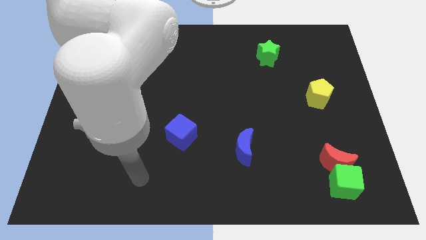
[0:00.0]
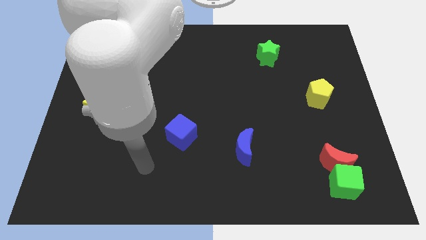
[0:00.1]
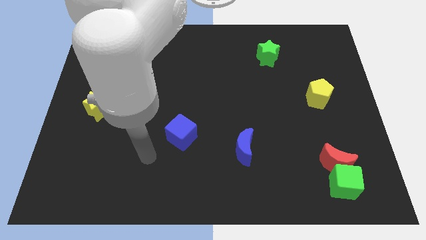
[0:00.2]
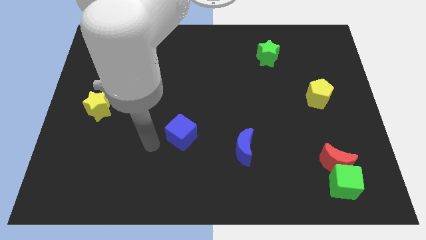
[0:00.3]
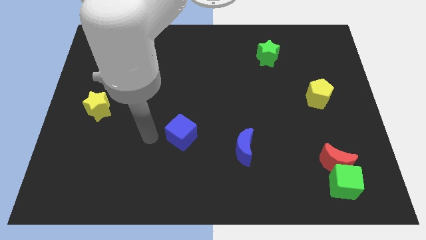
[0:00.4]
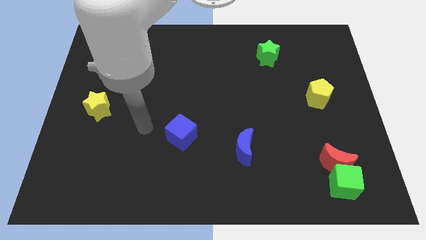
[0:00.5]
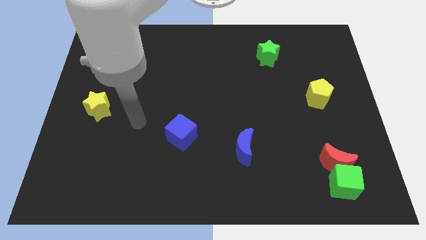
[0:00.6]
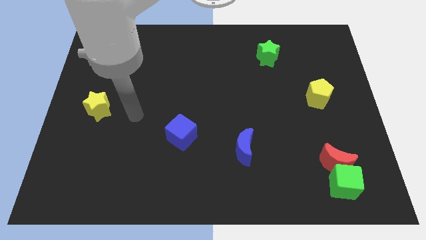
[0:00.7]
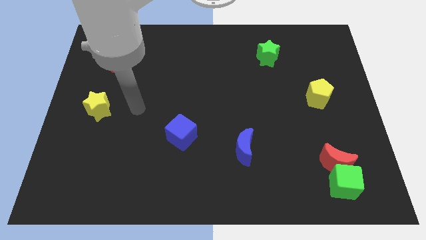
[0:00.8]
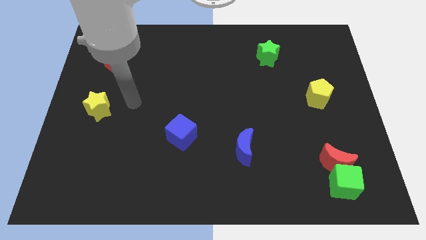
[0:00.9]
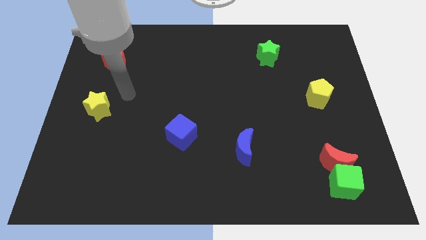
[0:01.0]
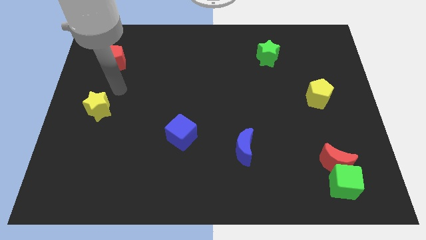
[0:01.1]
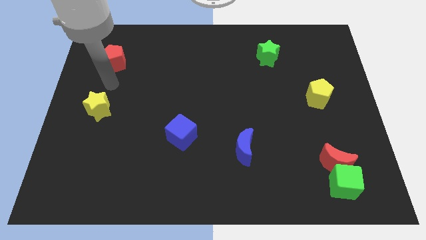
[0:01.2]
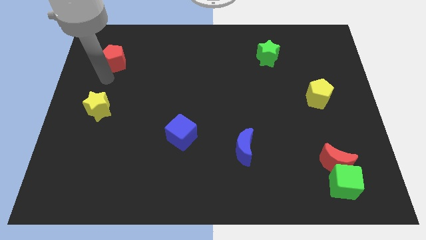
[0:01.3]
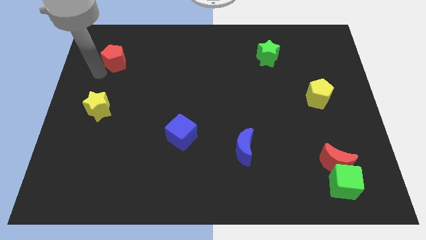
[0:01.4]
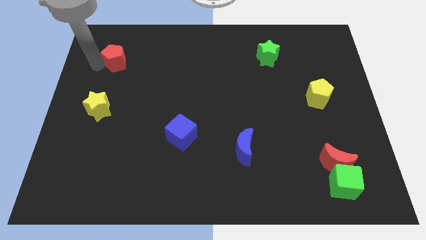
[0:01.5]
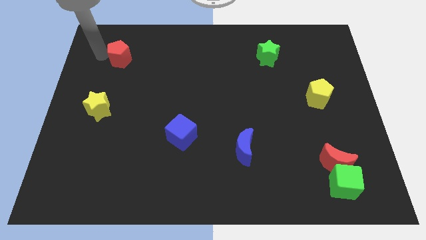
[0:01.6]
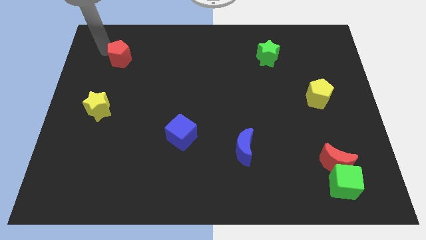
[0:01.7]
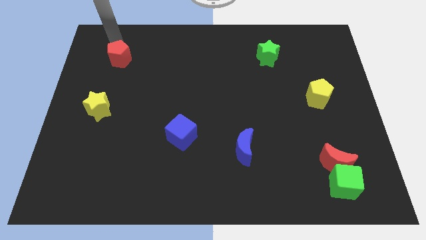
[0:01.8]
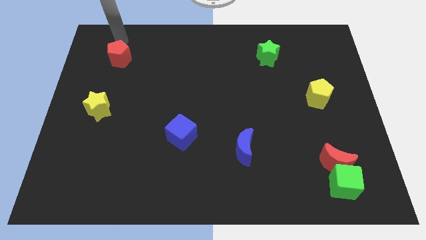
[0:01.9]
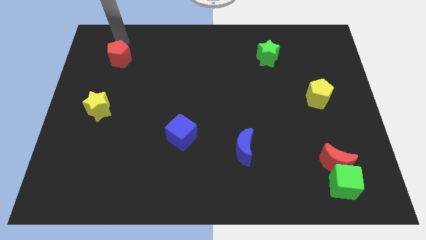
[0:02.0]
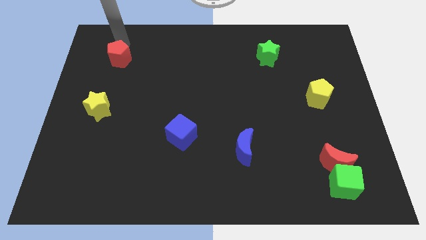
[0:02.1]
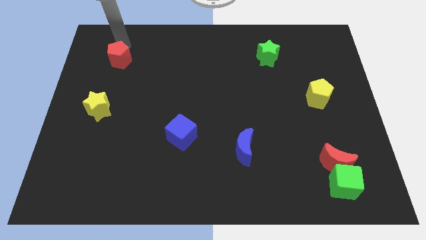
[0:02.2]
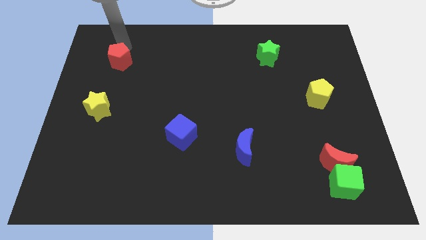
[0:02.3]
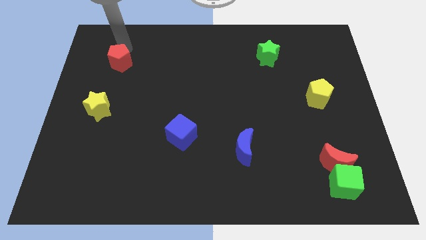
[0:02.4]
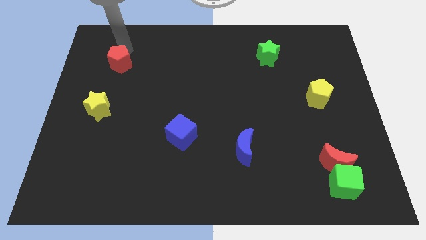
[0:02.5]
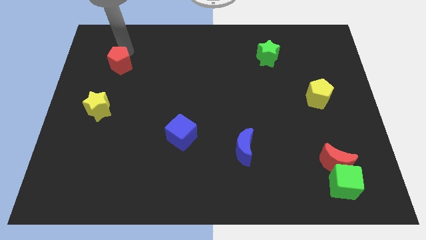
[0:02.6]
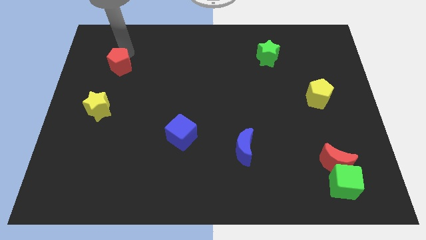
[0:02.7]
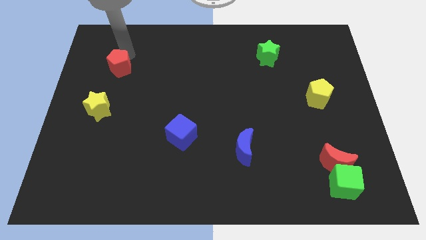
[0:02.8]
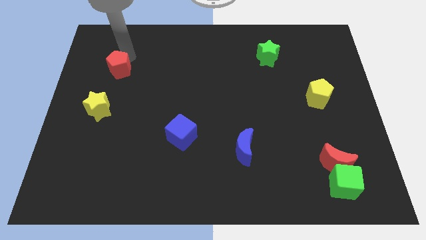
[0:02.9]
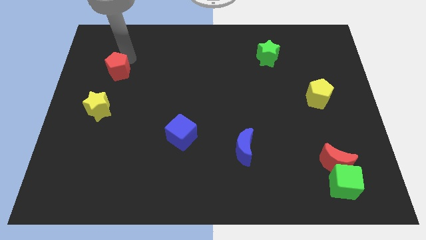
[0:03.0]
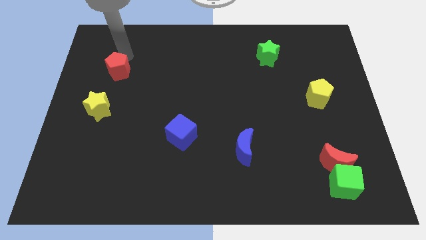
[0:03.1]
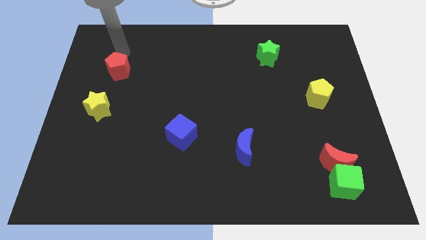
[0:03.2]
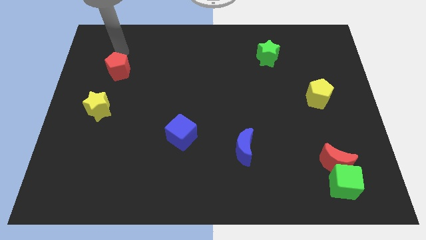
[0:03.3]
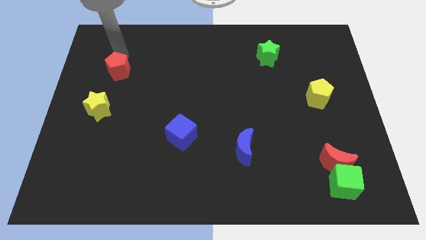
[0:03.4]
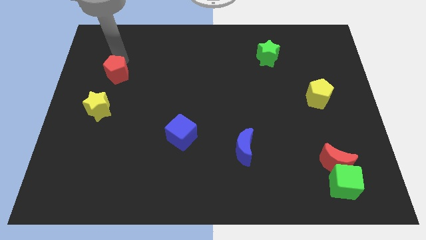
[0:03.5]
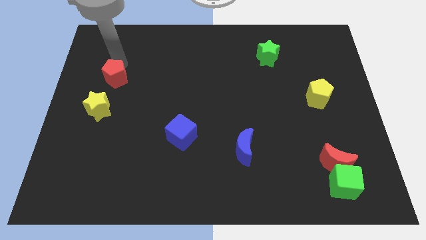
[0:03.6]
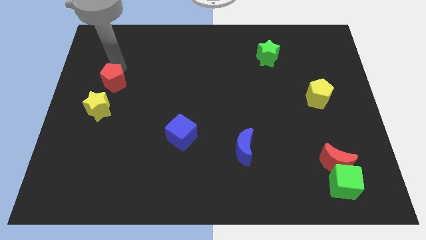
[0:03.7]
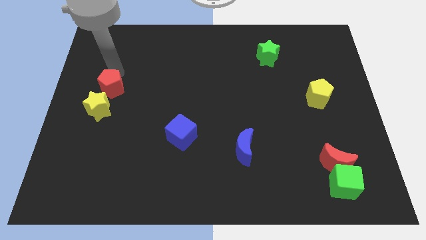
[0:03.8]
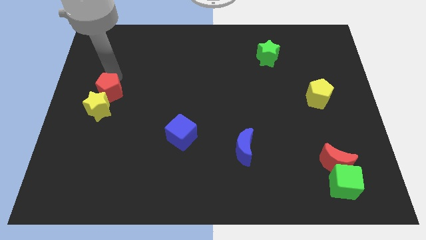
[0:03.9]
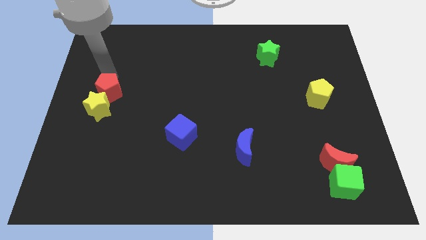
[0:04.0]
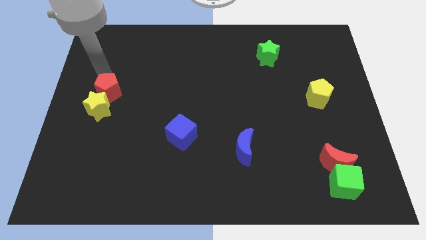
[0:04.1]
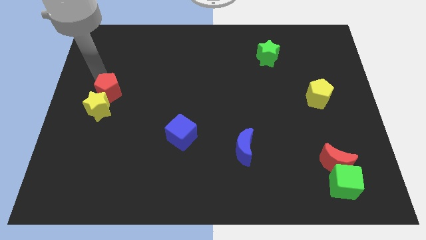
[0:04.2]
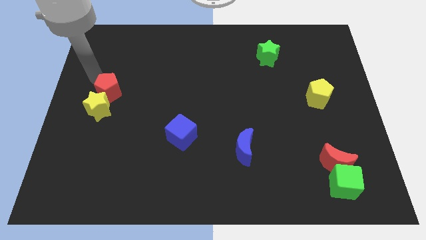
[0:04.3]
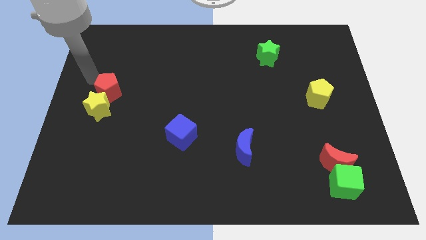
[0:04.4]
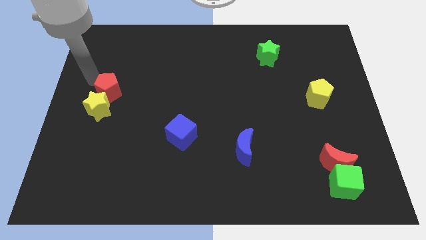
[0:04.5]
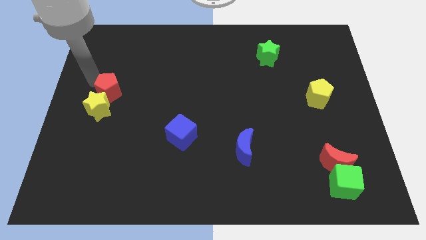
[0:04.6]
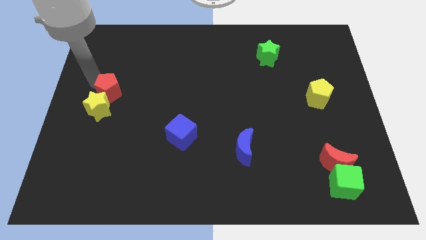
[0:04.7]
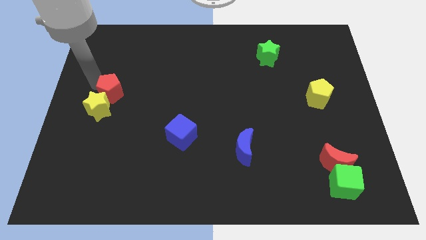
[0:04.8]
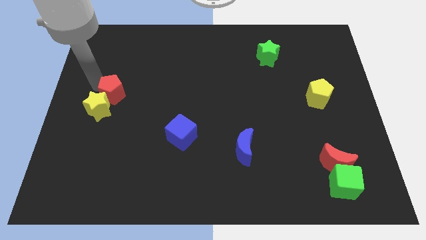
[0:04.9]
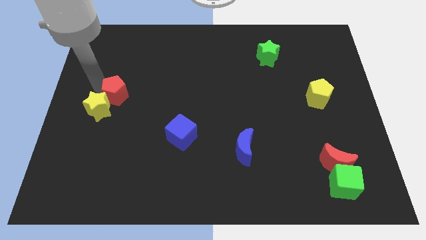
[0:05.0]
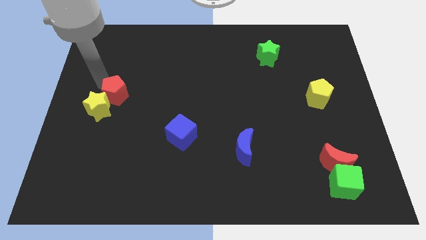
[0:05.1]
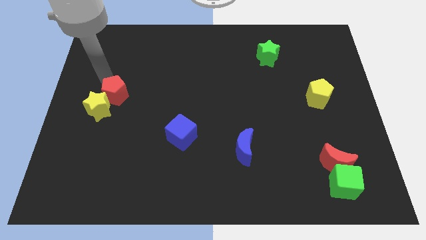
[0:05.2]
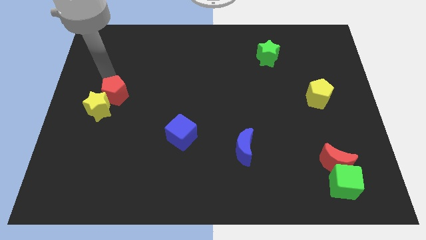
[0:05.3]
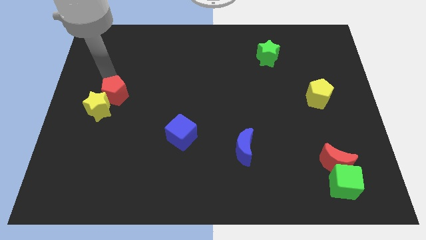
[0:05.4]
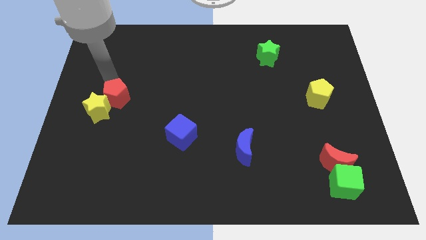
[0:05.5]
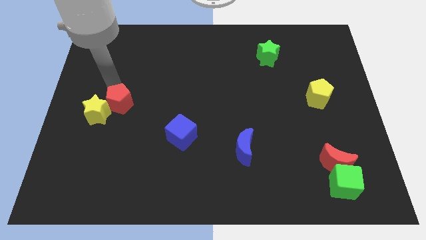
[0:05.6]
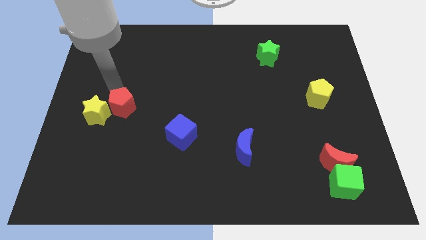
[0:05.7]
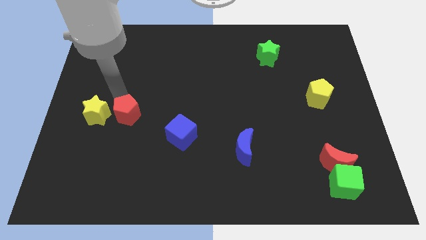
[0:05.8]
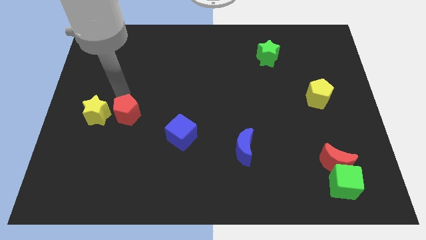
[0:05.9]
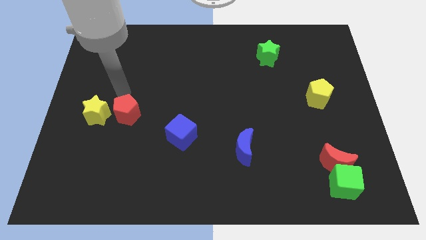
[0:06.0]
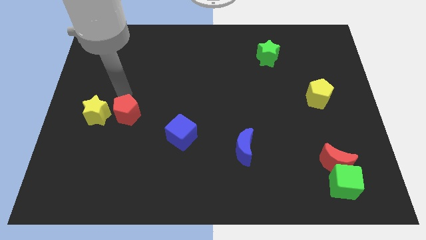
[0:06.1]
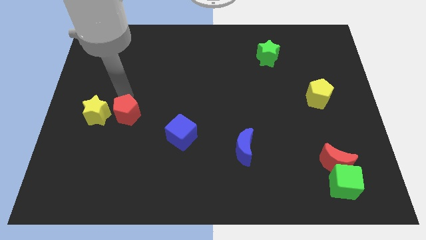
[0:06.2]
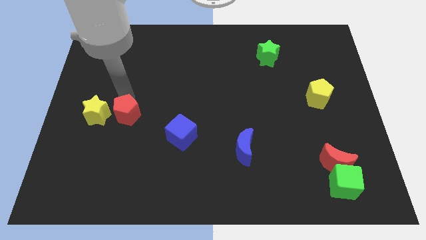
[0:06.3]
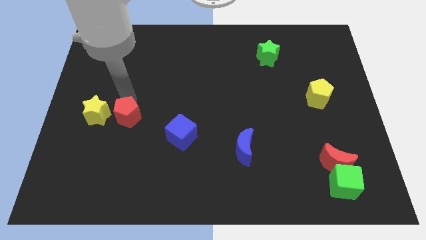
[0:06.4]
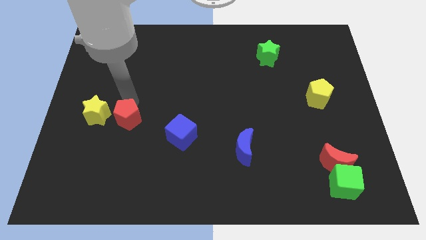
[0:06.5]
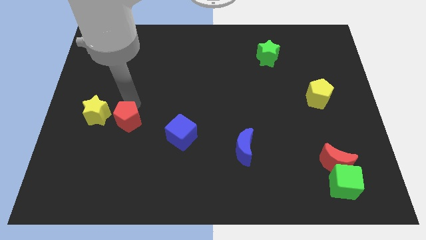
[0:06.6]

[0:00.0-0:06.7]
put the red pentagon to the left side of the blue cube
